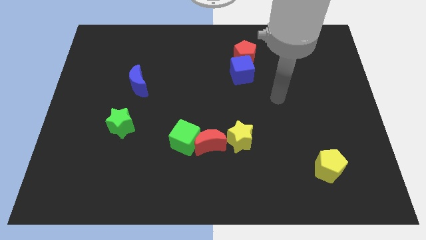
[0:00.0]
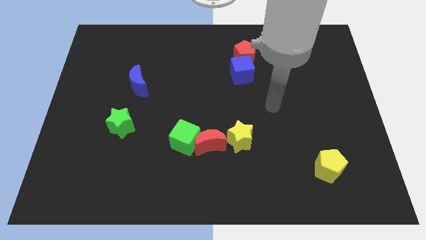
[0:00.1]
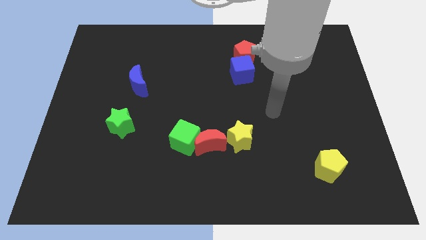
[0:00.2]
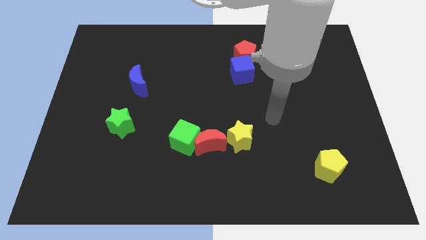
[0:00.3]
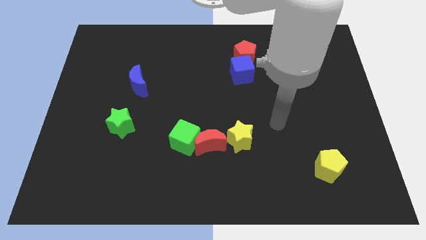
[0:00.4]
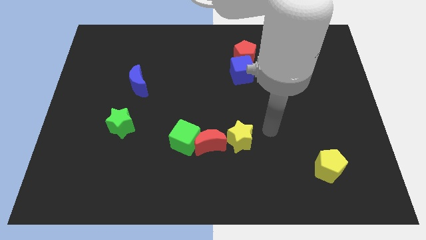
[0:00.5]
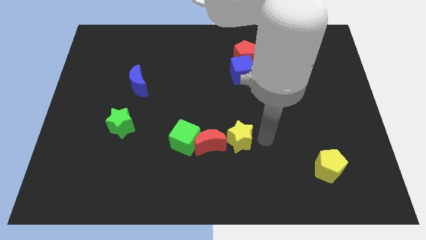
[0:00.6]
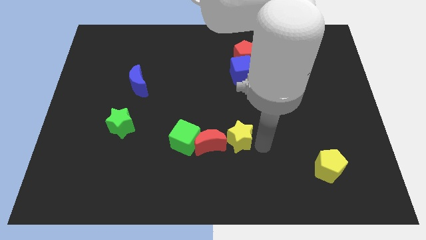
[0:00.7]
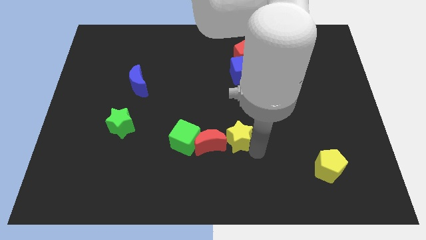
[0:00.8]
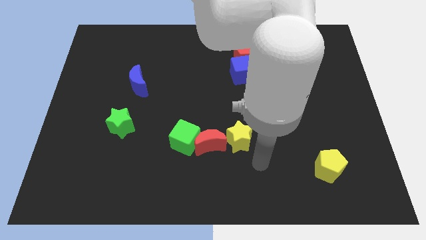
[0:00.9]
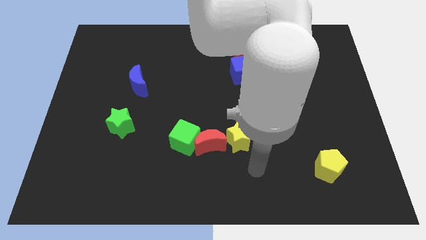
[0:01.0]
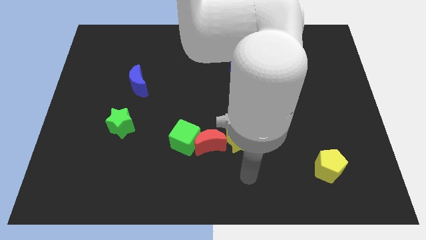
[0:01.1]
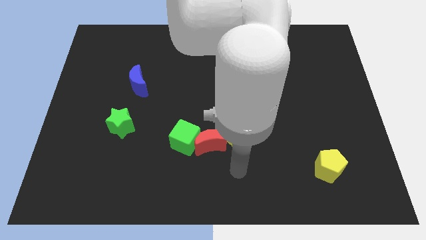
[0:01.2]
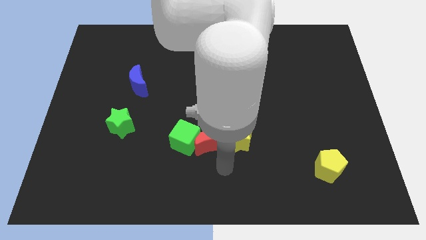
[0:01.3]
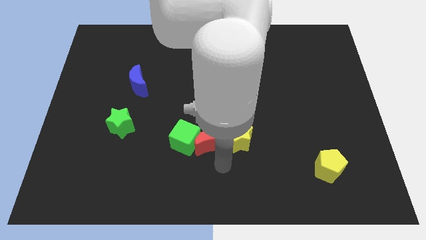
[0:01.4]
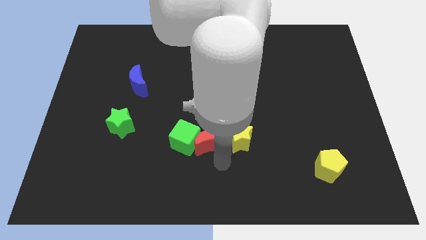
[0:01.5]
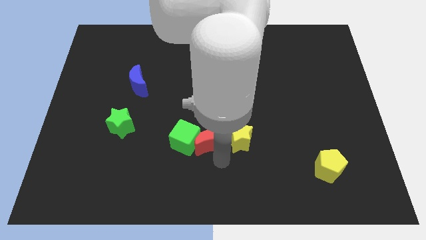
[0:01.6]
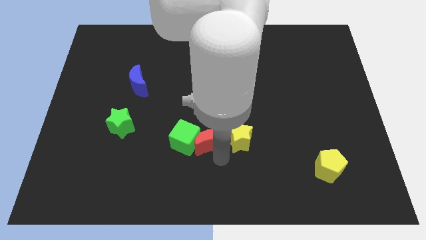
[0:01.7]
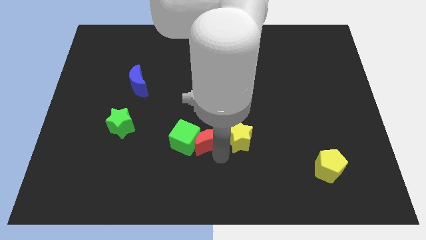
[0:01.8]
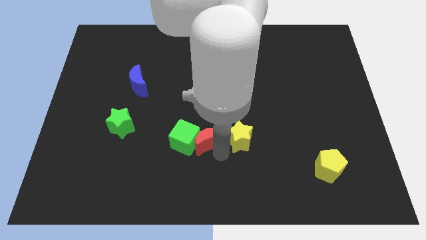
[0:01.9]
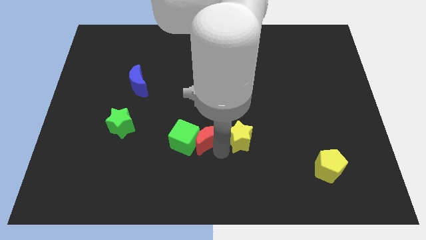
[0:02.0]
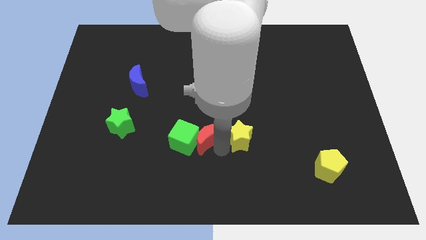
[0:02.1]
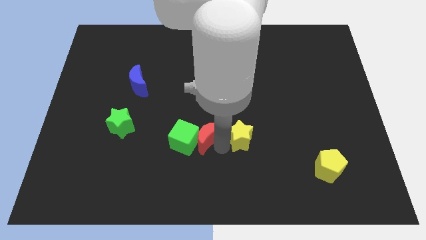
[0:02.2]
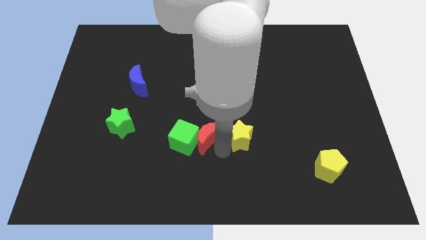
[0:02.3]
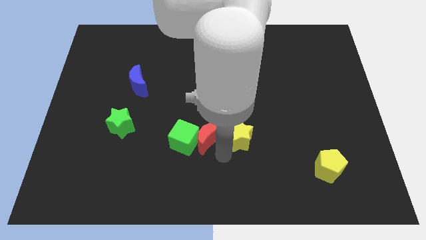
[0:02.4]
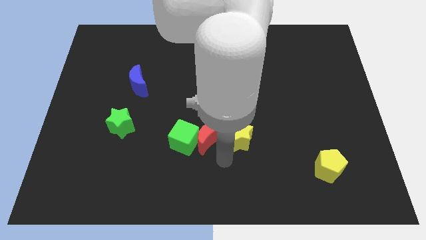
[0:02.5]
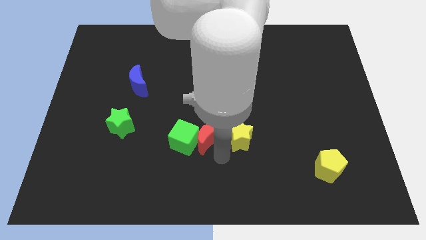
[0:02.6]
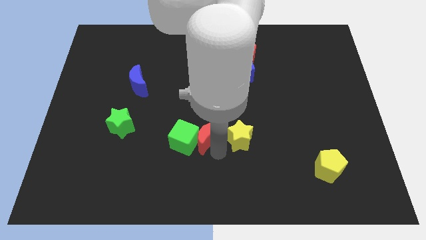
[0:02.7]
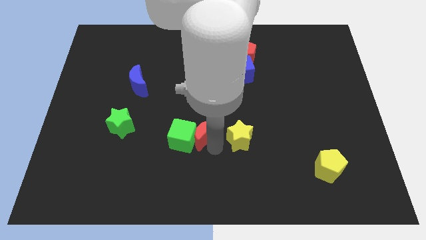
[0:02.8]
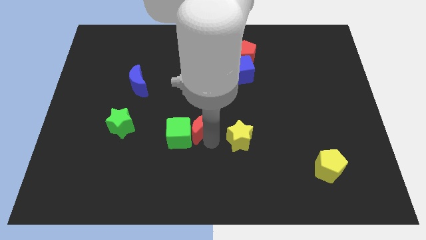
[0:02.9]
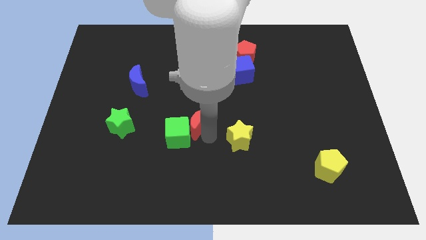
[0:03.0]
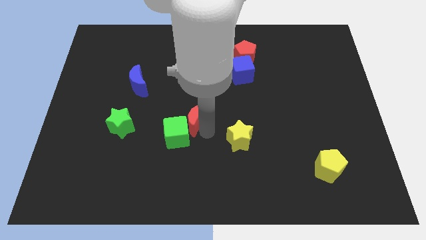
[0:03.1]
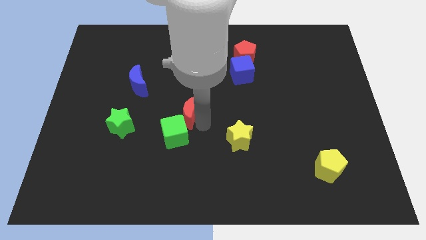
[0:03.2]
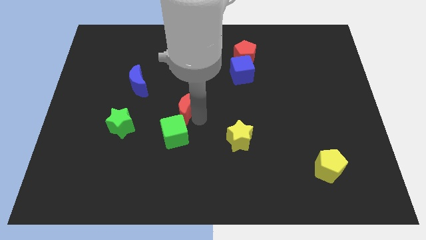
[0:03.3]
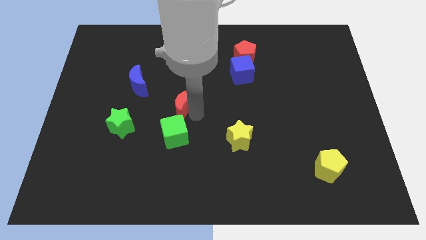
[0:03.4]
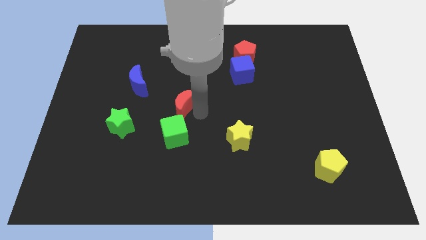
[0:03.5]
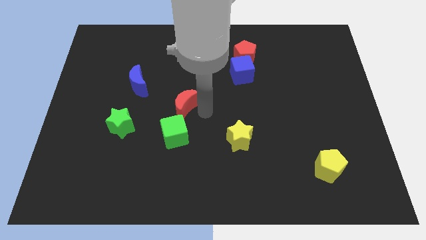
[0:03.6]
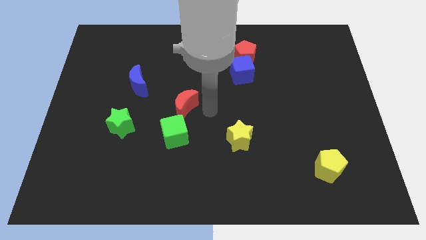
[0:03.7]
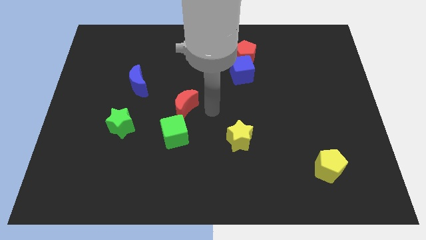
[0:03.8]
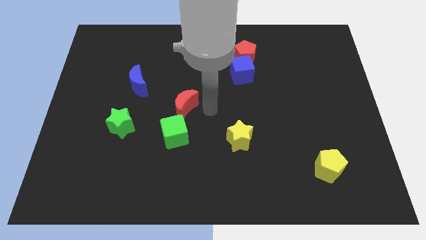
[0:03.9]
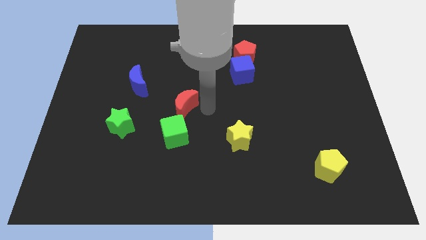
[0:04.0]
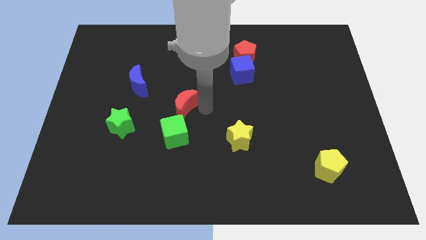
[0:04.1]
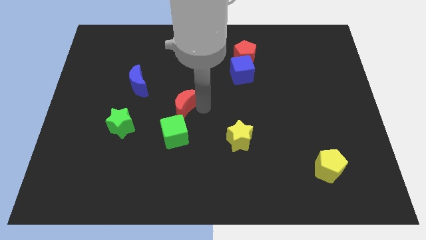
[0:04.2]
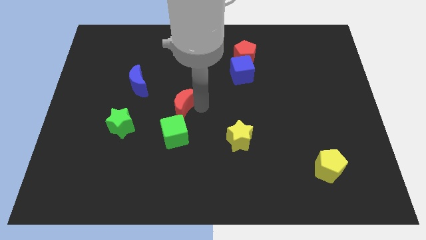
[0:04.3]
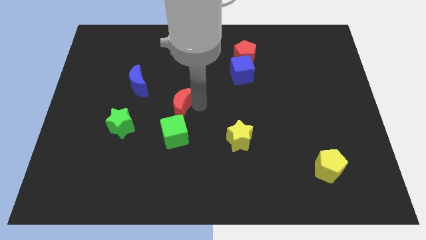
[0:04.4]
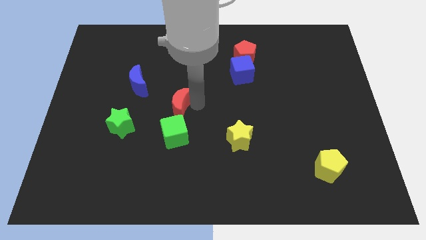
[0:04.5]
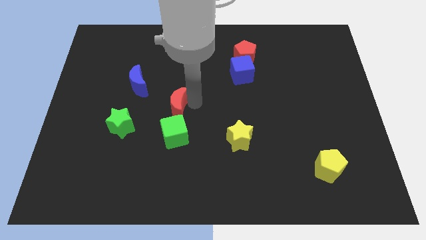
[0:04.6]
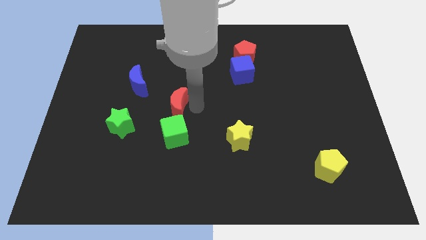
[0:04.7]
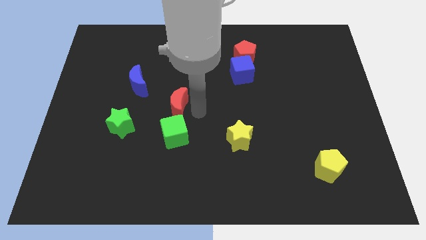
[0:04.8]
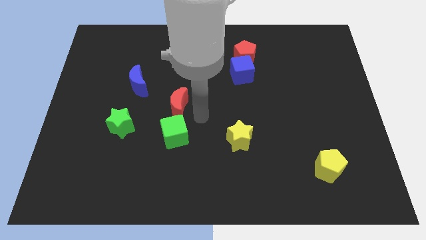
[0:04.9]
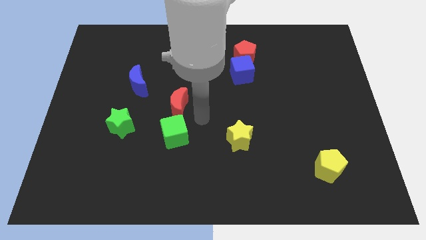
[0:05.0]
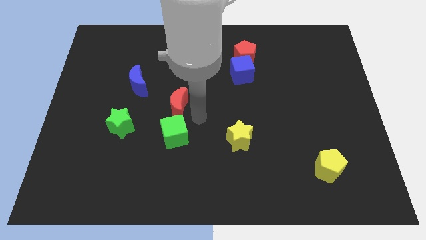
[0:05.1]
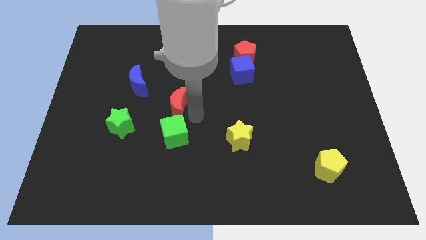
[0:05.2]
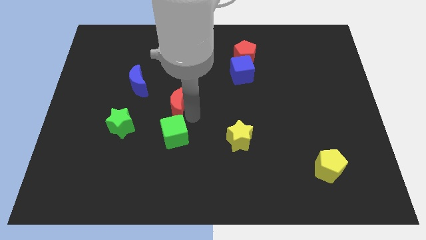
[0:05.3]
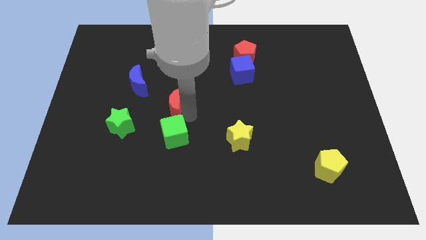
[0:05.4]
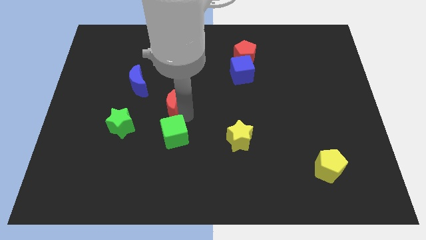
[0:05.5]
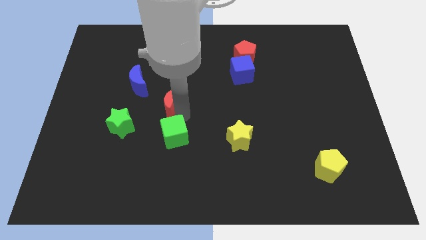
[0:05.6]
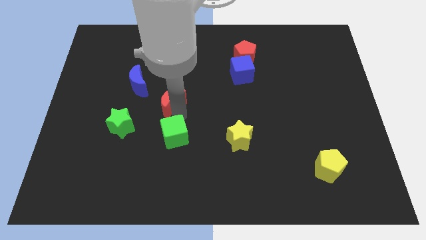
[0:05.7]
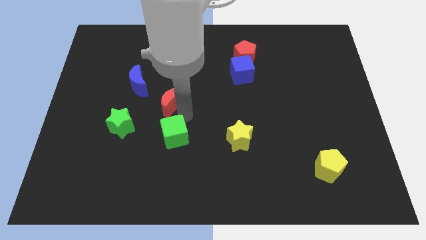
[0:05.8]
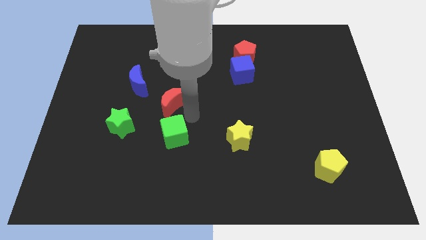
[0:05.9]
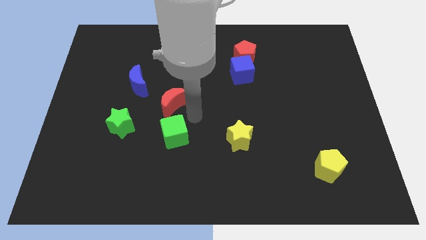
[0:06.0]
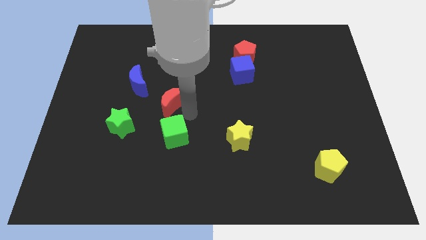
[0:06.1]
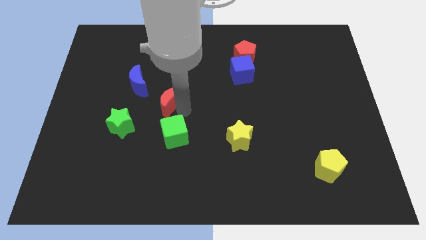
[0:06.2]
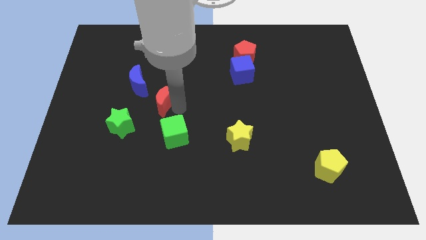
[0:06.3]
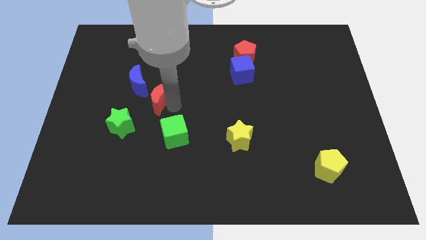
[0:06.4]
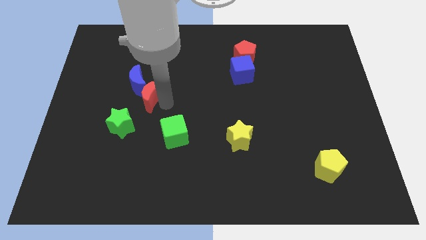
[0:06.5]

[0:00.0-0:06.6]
put the red moon towards the blue moon

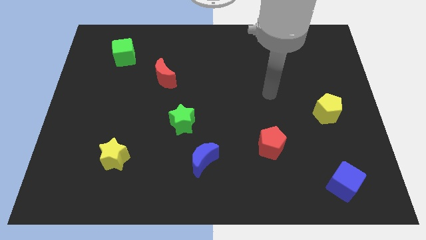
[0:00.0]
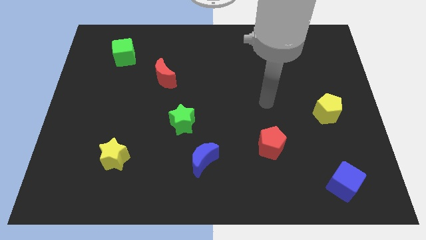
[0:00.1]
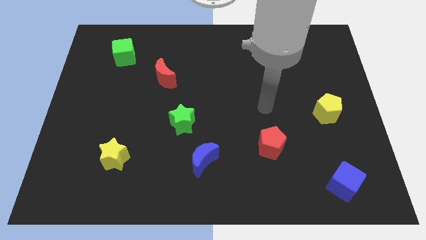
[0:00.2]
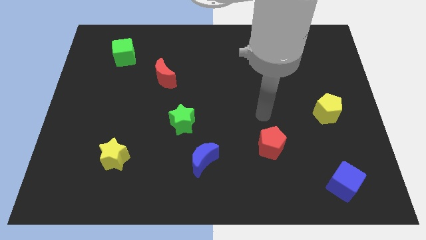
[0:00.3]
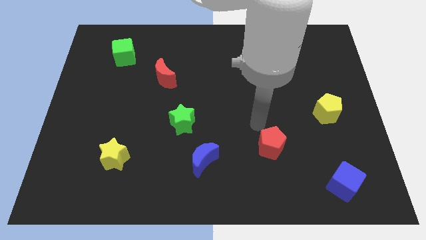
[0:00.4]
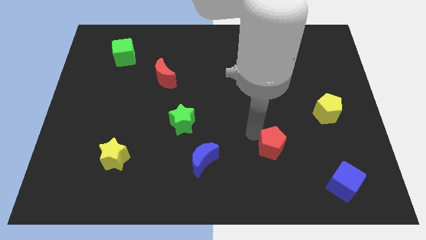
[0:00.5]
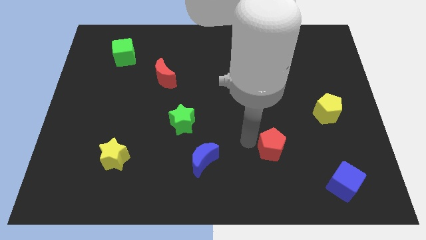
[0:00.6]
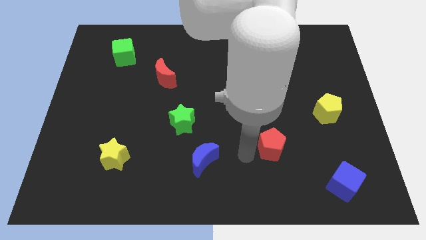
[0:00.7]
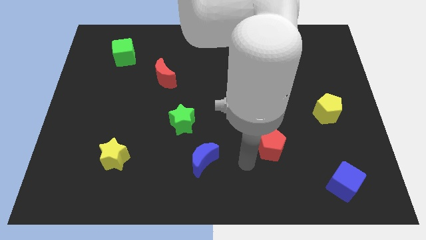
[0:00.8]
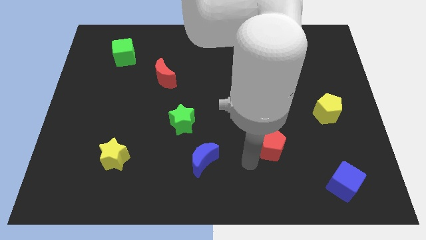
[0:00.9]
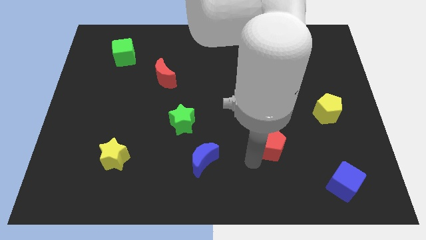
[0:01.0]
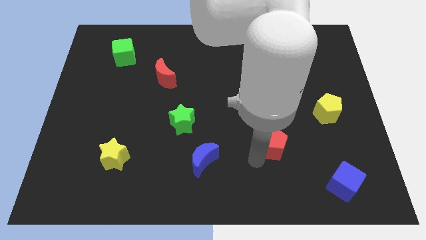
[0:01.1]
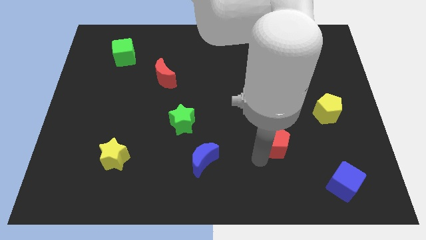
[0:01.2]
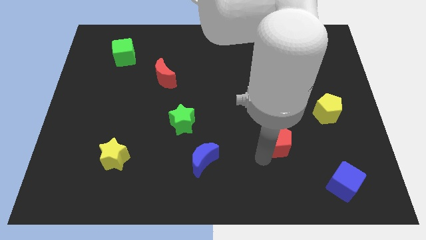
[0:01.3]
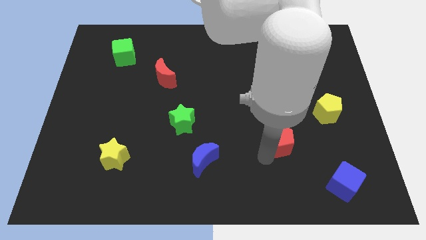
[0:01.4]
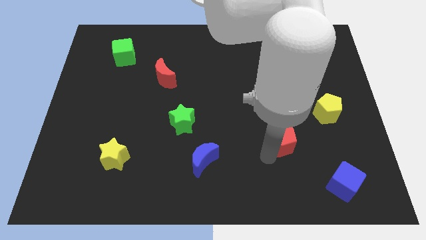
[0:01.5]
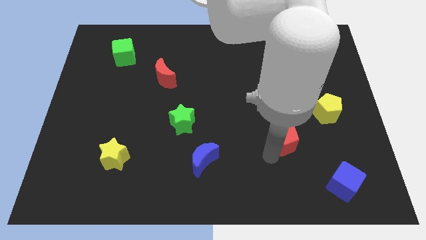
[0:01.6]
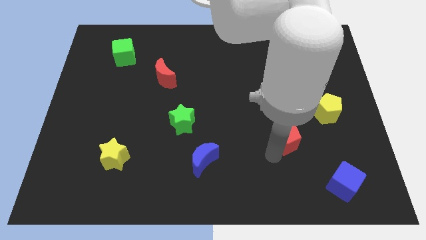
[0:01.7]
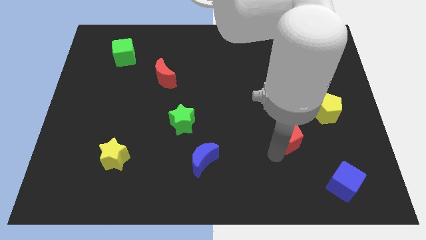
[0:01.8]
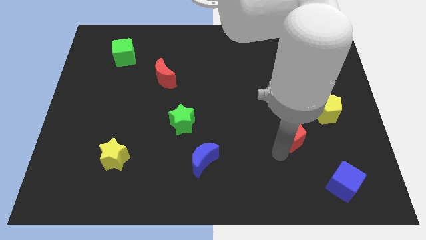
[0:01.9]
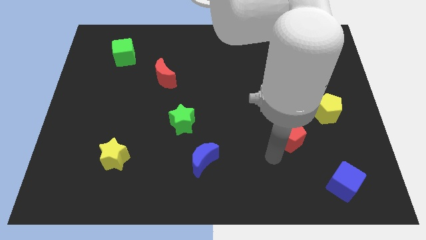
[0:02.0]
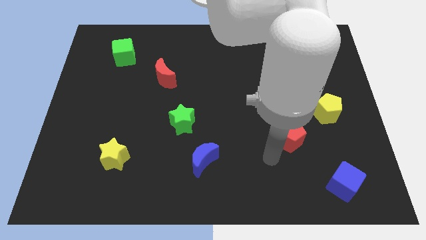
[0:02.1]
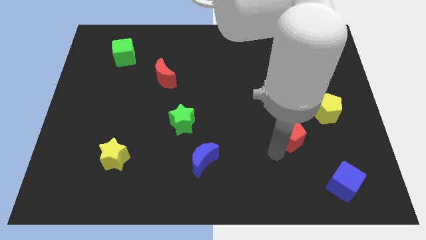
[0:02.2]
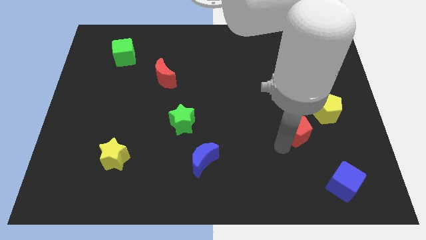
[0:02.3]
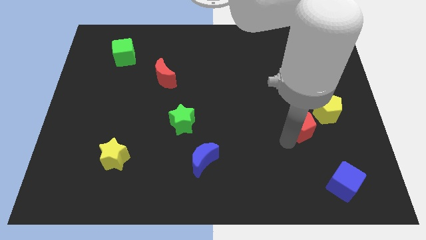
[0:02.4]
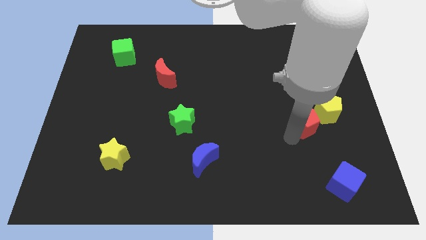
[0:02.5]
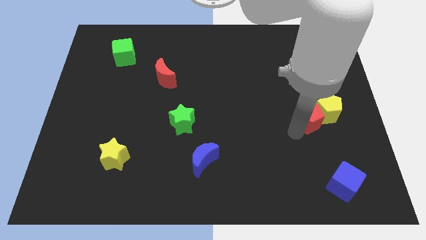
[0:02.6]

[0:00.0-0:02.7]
slide the red pentagon close to the yellow pentagon
